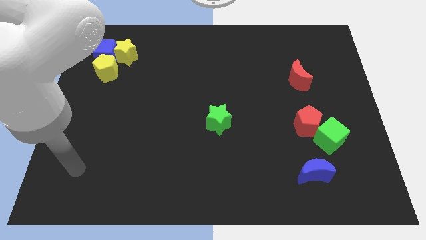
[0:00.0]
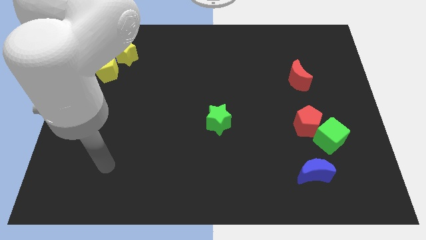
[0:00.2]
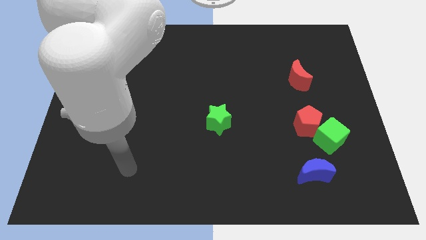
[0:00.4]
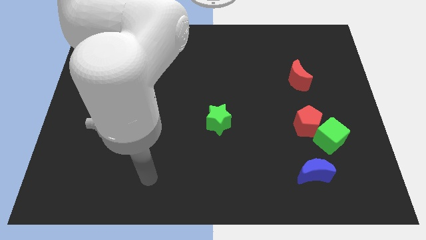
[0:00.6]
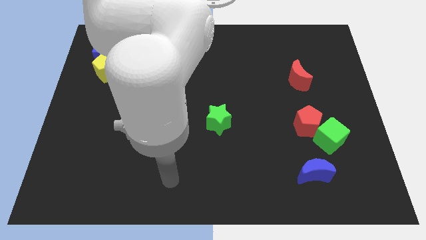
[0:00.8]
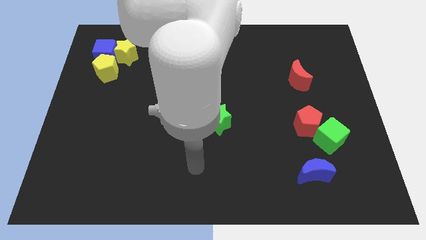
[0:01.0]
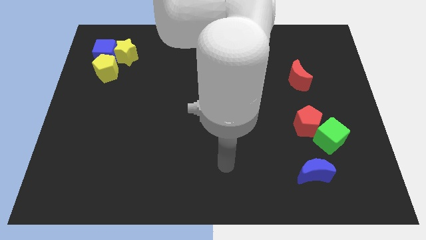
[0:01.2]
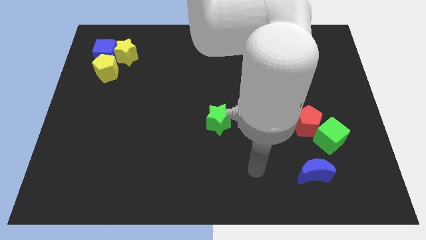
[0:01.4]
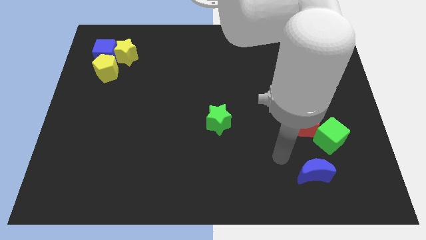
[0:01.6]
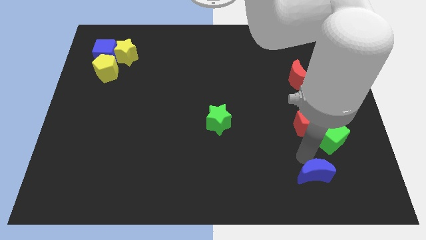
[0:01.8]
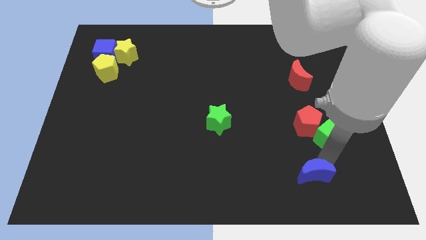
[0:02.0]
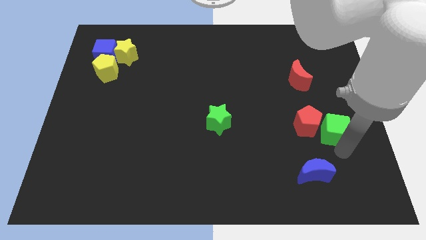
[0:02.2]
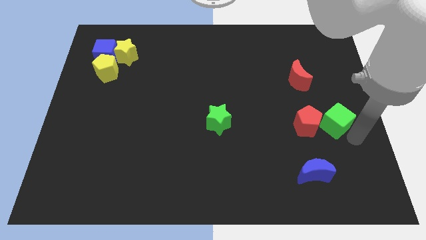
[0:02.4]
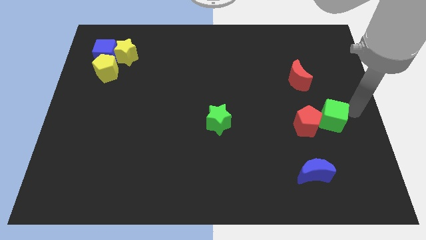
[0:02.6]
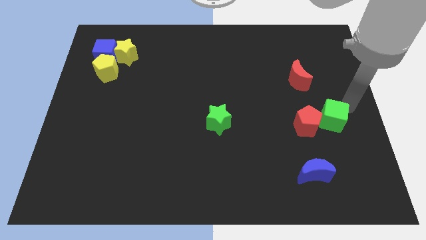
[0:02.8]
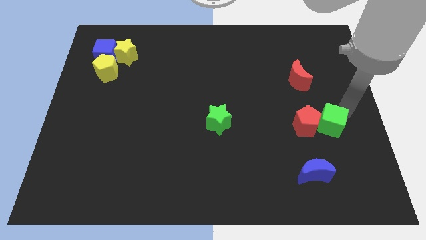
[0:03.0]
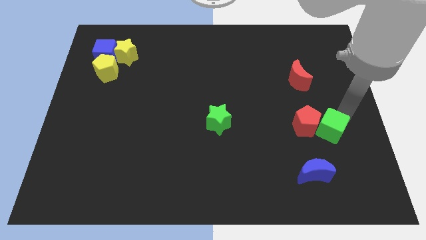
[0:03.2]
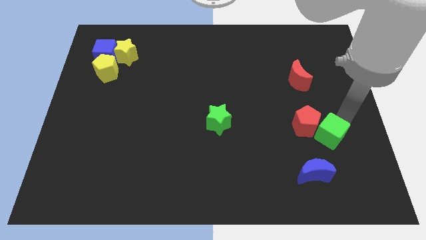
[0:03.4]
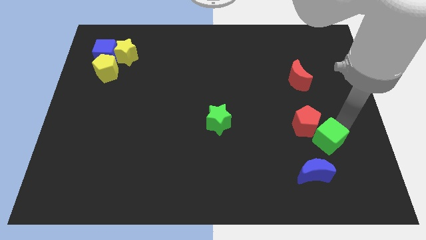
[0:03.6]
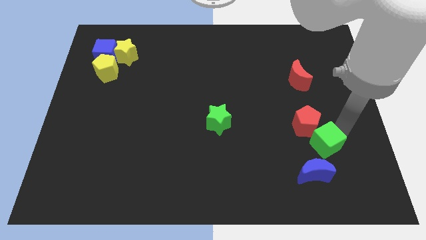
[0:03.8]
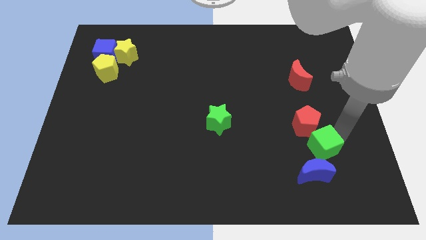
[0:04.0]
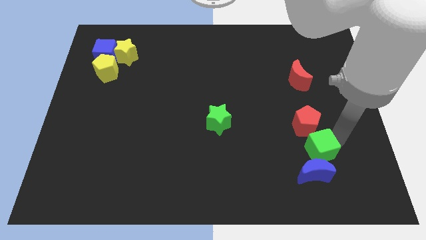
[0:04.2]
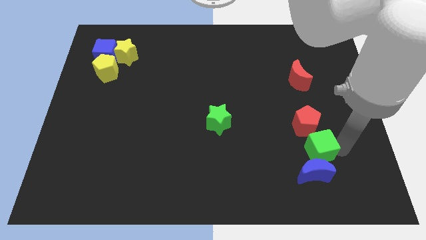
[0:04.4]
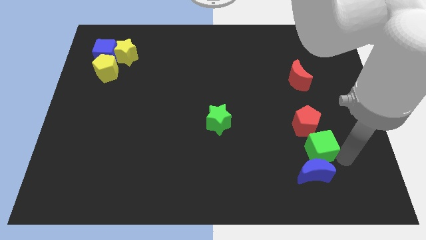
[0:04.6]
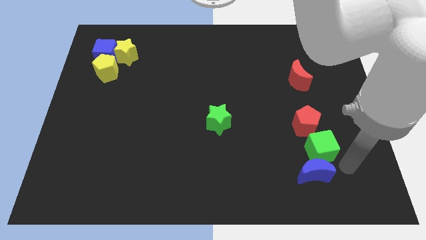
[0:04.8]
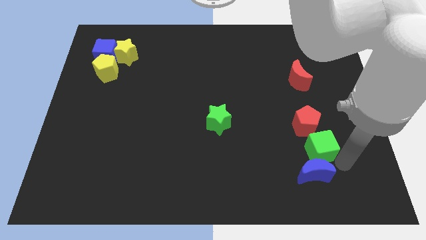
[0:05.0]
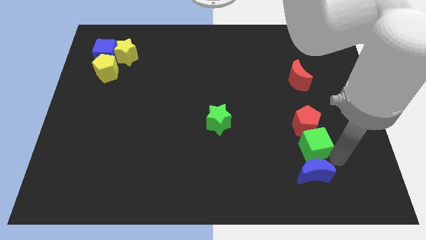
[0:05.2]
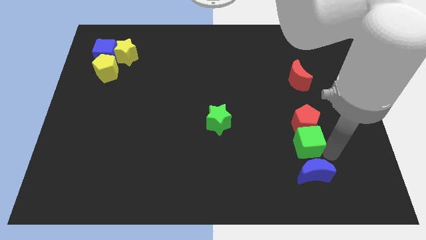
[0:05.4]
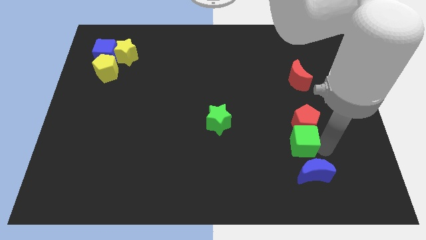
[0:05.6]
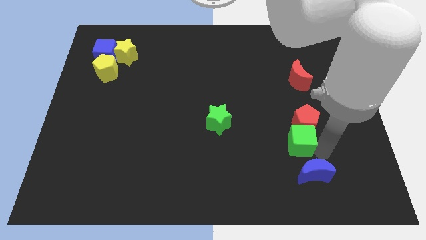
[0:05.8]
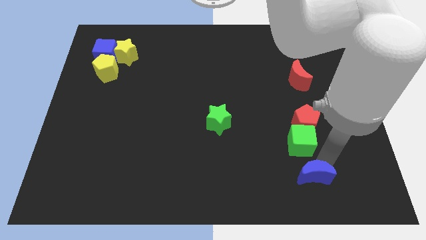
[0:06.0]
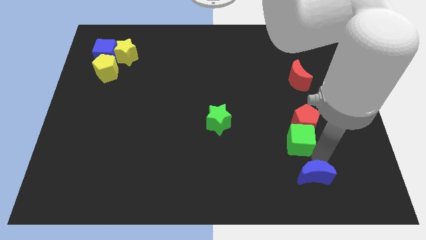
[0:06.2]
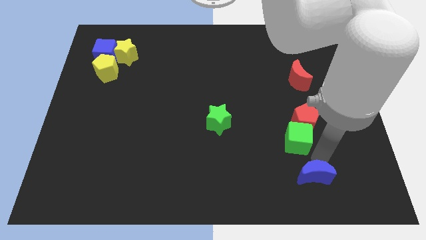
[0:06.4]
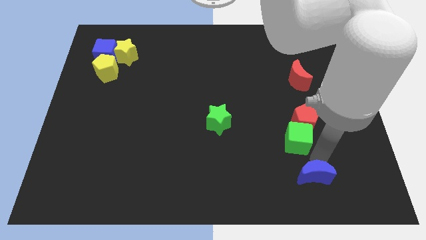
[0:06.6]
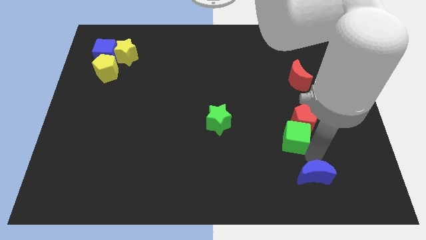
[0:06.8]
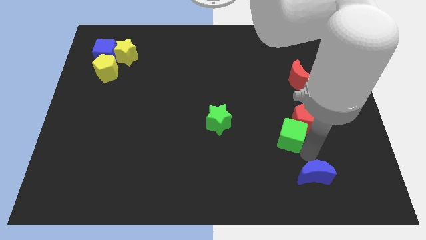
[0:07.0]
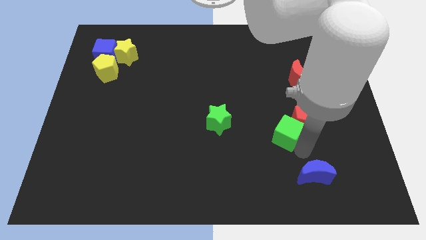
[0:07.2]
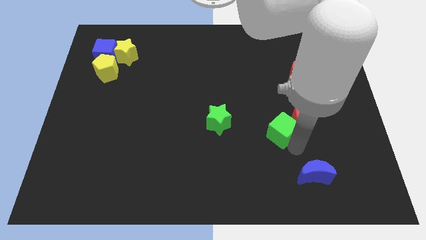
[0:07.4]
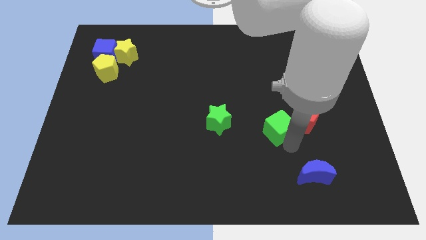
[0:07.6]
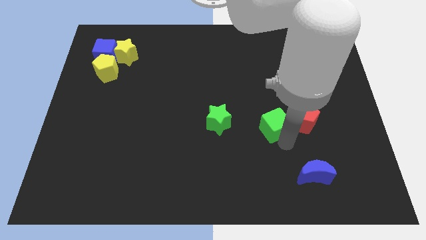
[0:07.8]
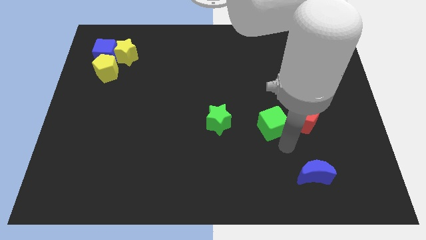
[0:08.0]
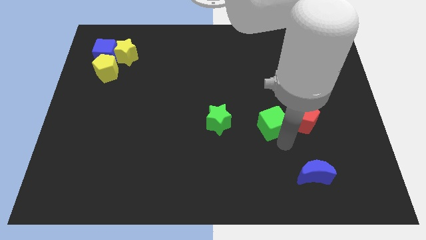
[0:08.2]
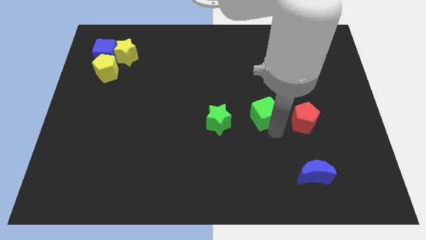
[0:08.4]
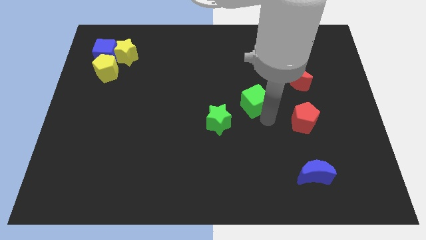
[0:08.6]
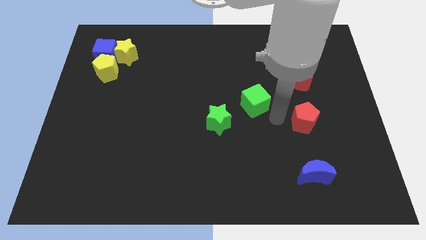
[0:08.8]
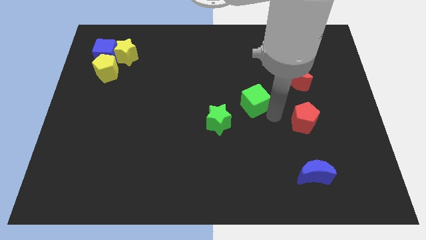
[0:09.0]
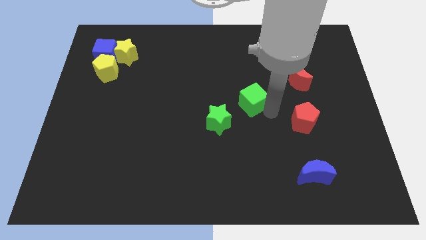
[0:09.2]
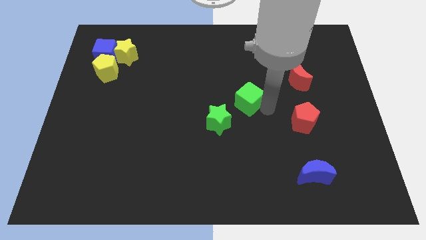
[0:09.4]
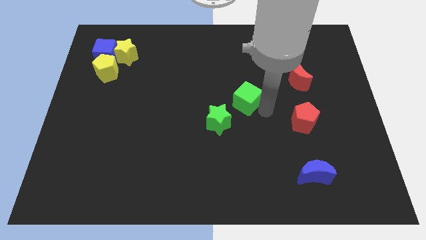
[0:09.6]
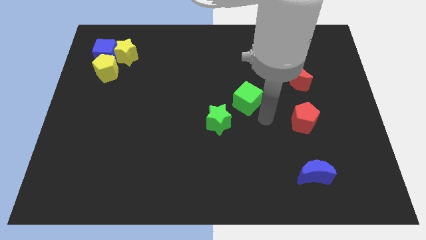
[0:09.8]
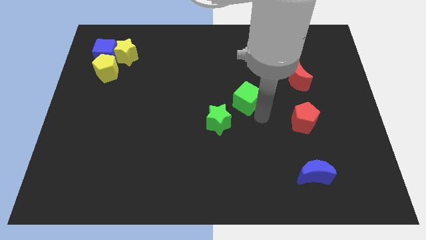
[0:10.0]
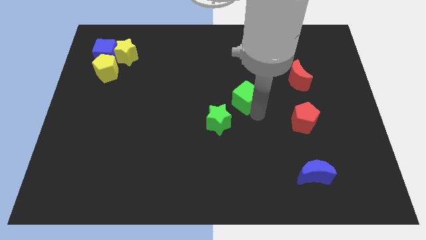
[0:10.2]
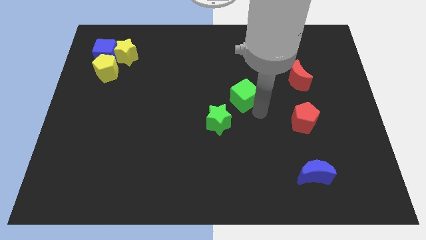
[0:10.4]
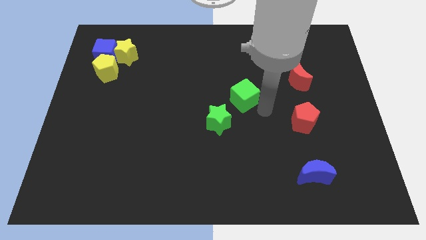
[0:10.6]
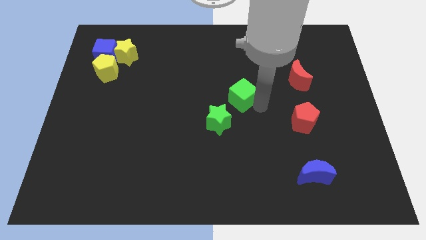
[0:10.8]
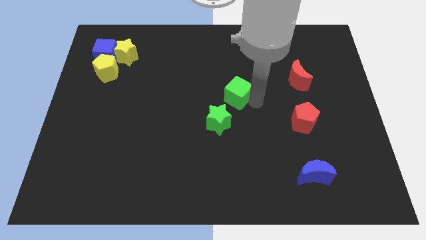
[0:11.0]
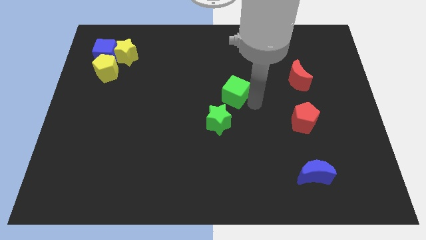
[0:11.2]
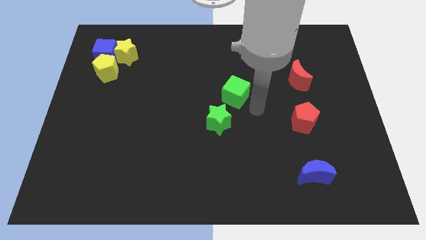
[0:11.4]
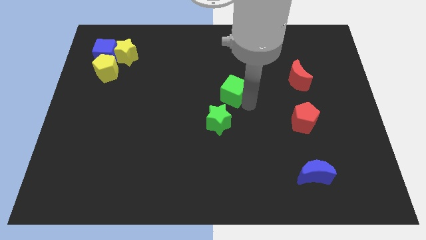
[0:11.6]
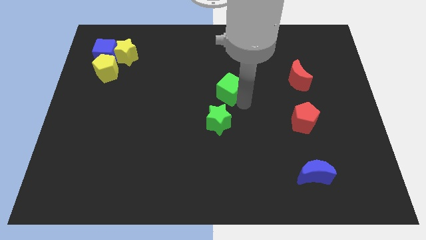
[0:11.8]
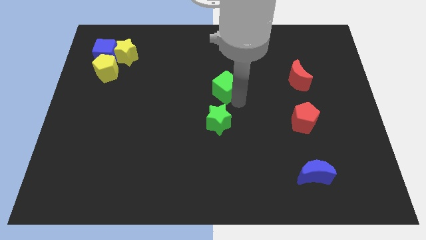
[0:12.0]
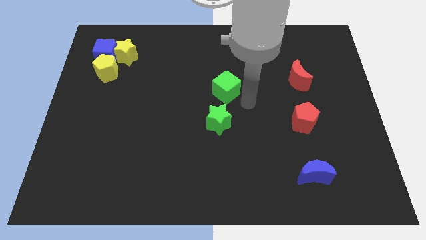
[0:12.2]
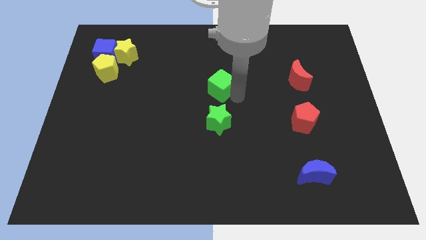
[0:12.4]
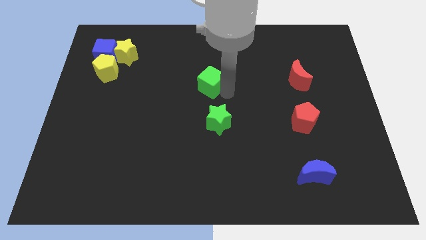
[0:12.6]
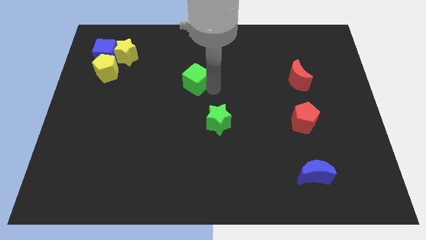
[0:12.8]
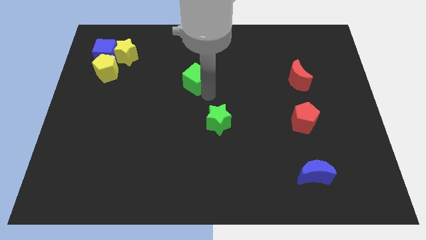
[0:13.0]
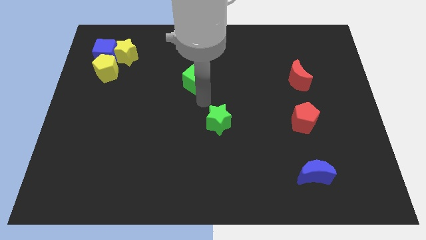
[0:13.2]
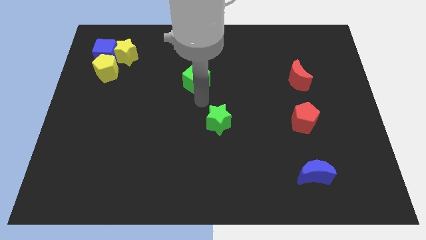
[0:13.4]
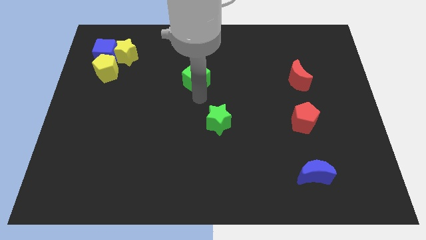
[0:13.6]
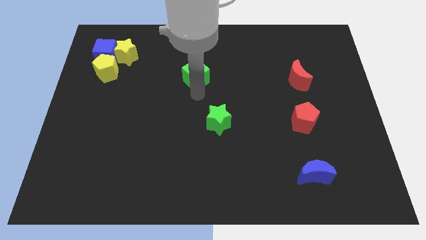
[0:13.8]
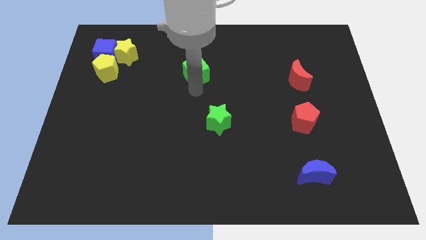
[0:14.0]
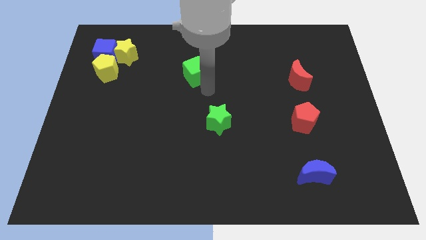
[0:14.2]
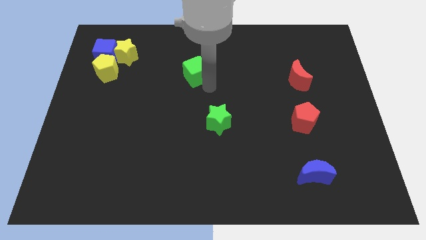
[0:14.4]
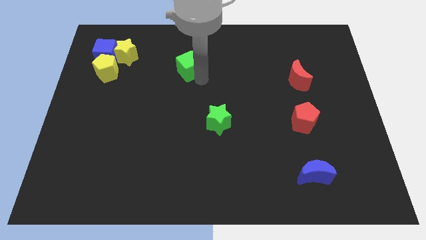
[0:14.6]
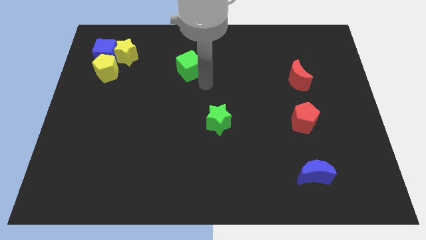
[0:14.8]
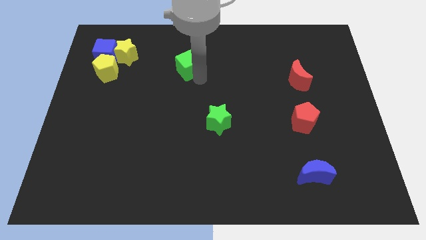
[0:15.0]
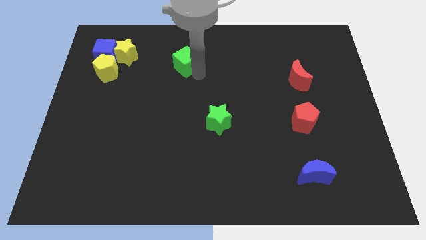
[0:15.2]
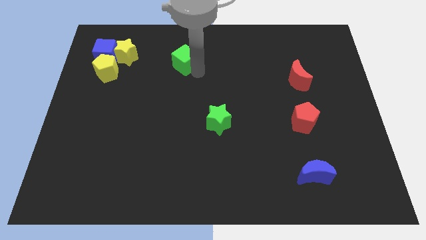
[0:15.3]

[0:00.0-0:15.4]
push the green cube right of the yellow star
